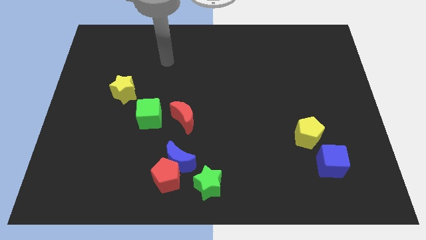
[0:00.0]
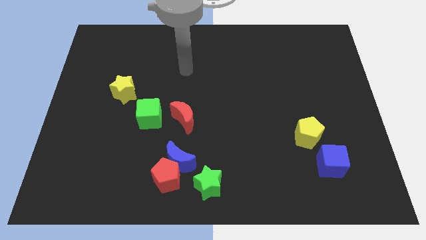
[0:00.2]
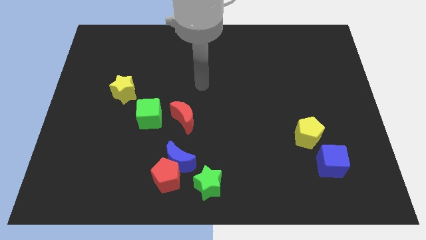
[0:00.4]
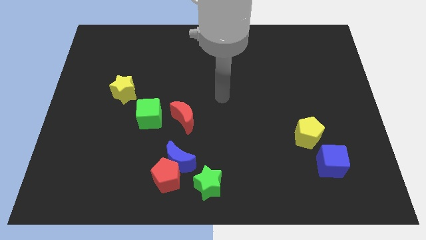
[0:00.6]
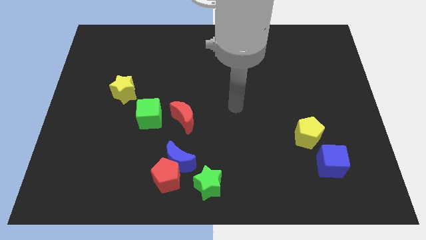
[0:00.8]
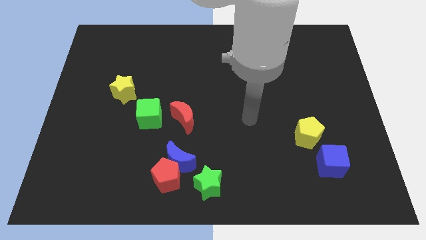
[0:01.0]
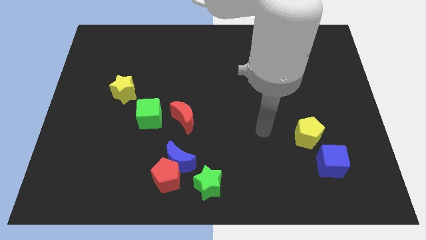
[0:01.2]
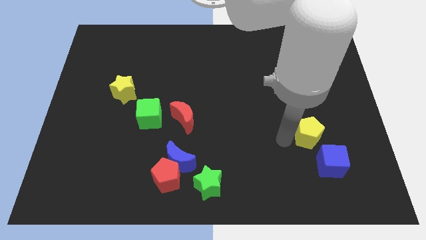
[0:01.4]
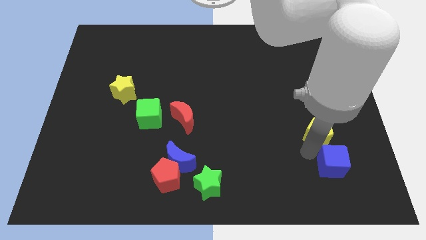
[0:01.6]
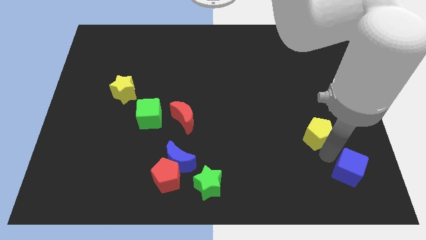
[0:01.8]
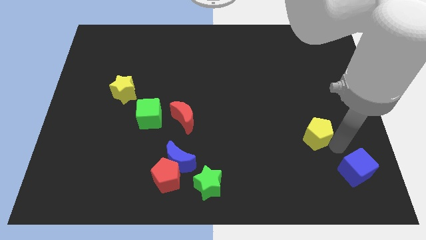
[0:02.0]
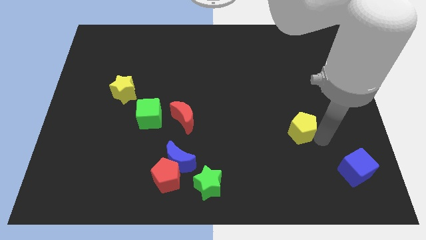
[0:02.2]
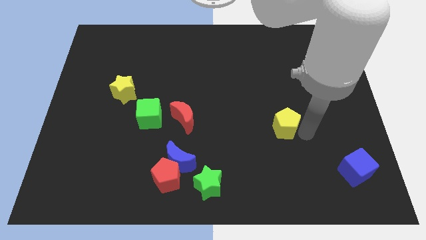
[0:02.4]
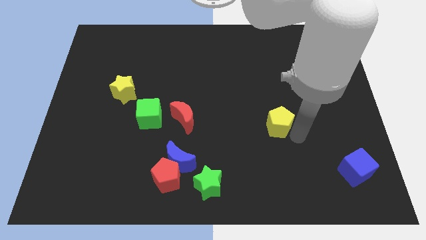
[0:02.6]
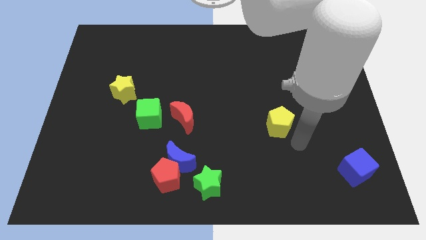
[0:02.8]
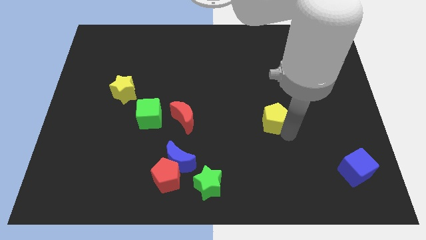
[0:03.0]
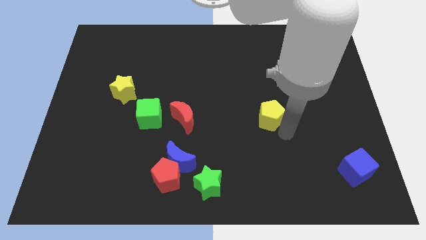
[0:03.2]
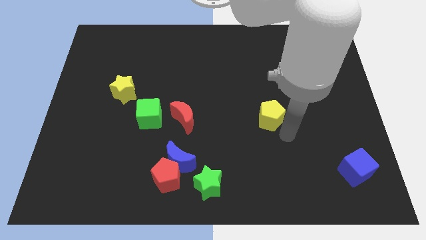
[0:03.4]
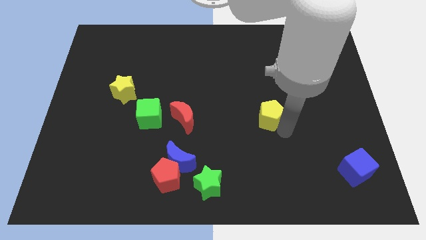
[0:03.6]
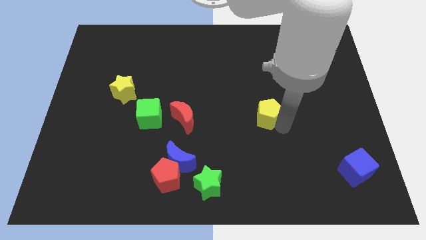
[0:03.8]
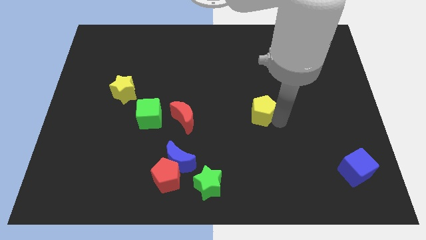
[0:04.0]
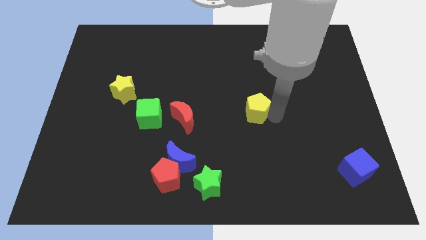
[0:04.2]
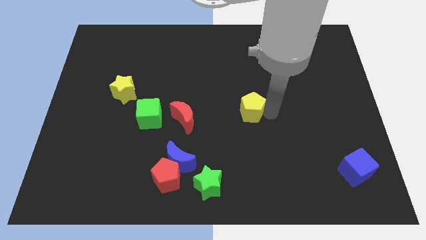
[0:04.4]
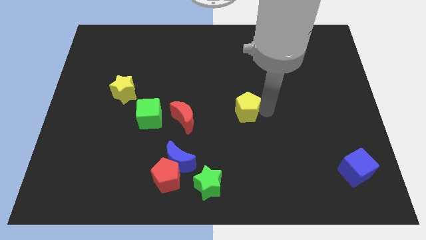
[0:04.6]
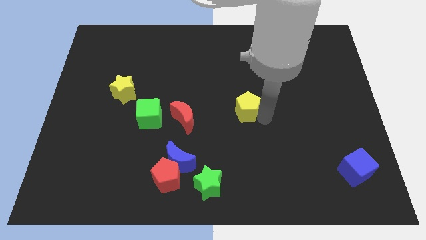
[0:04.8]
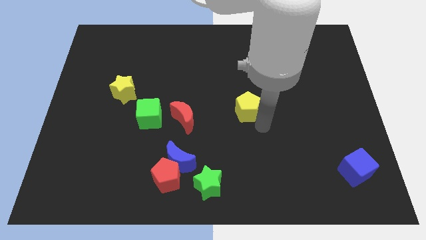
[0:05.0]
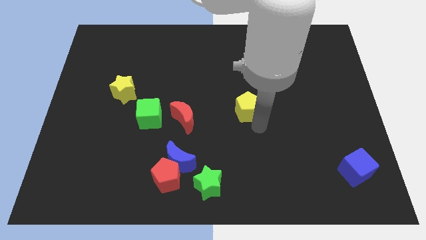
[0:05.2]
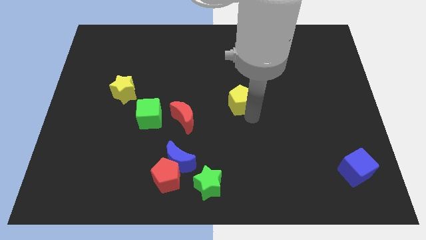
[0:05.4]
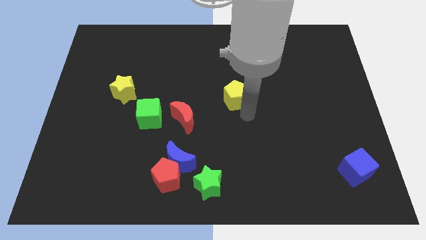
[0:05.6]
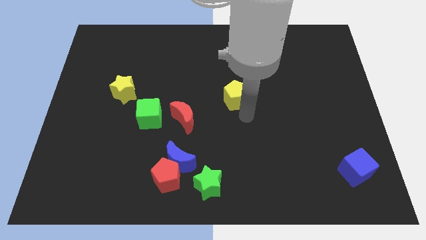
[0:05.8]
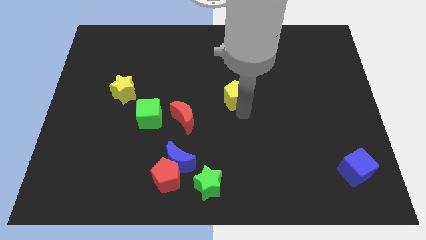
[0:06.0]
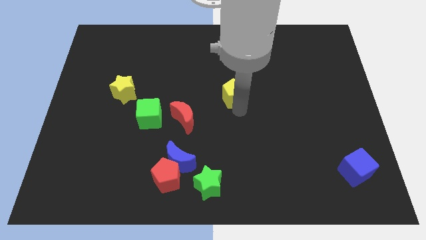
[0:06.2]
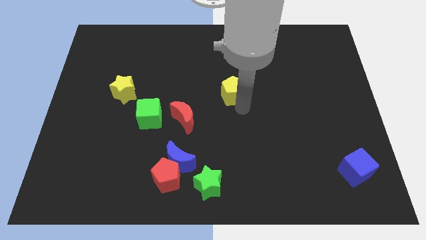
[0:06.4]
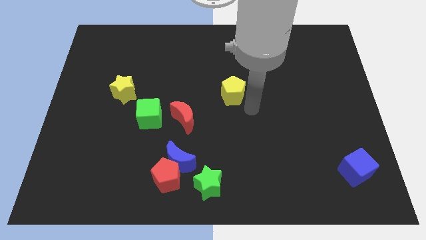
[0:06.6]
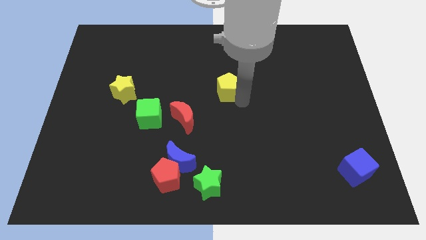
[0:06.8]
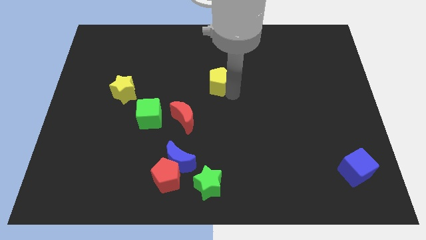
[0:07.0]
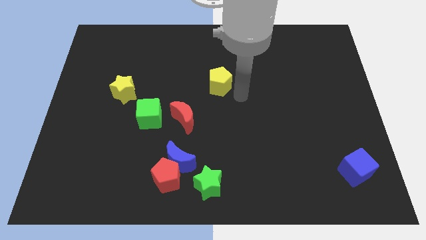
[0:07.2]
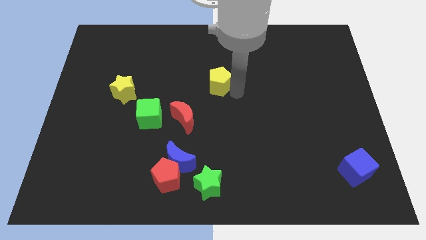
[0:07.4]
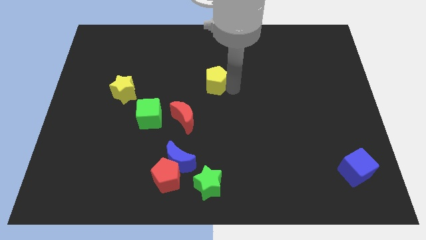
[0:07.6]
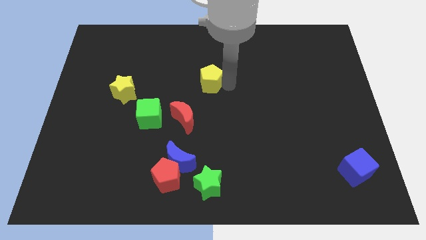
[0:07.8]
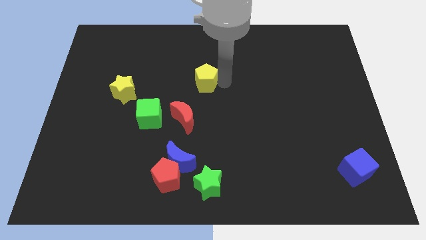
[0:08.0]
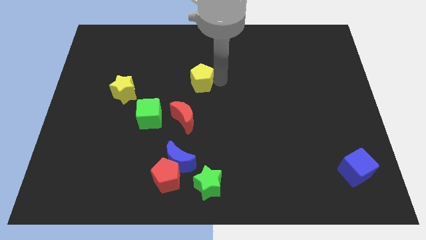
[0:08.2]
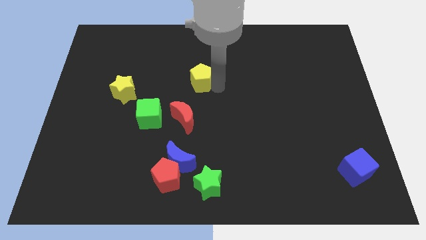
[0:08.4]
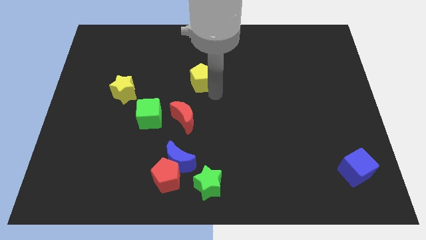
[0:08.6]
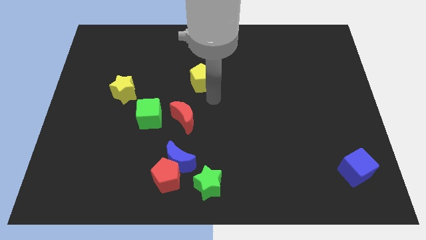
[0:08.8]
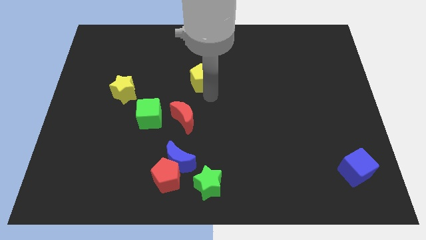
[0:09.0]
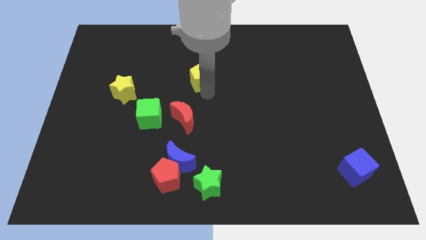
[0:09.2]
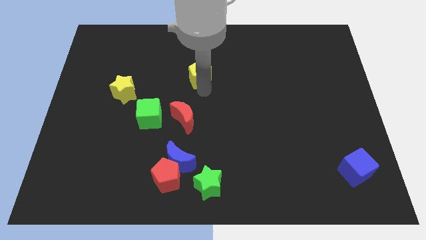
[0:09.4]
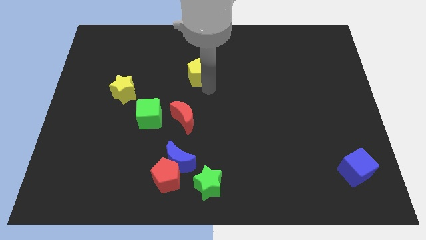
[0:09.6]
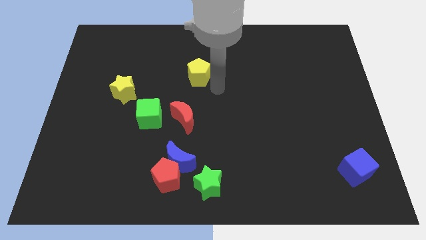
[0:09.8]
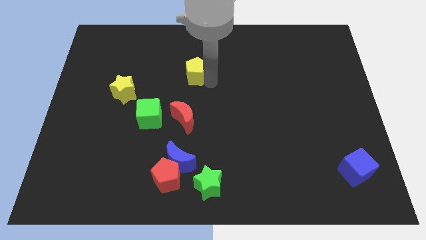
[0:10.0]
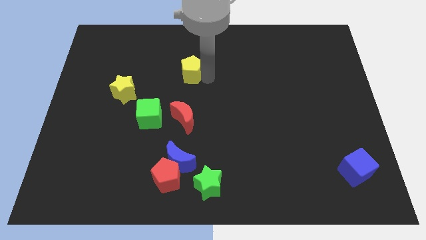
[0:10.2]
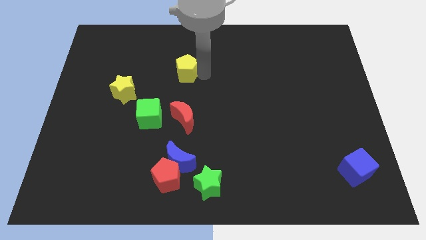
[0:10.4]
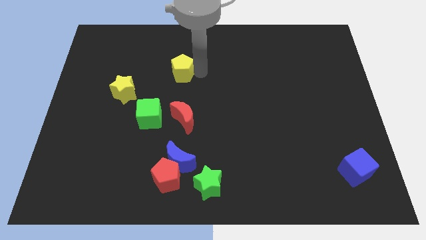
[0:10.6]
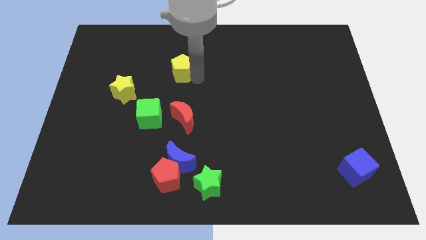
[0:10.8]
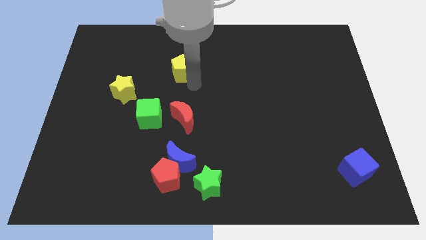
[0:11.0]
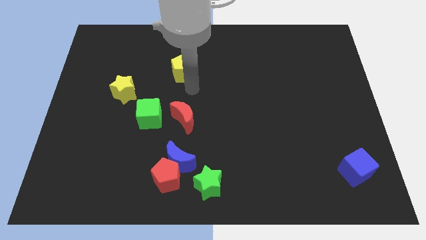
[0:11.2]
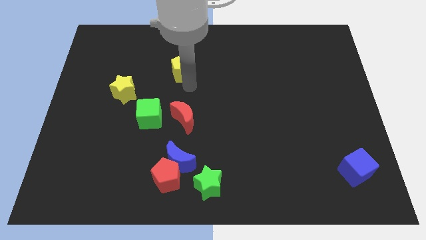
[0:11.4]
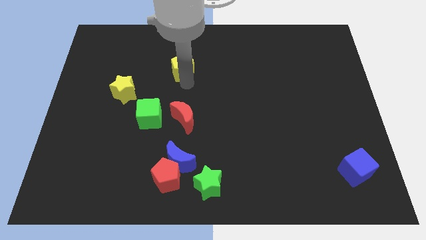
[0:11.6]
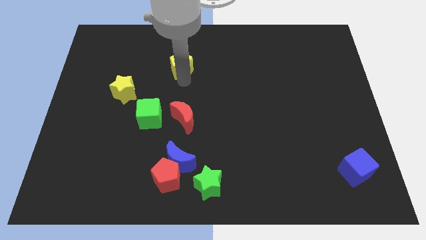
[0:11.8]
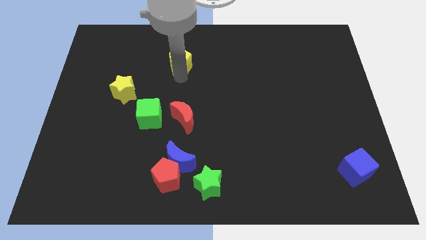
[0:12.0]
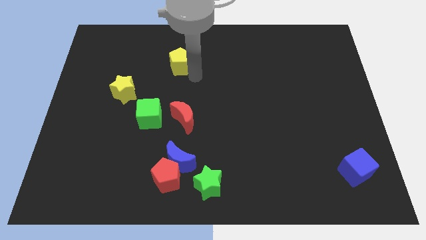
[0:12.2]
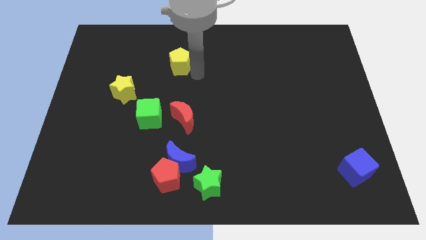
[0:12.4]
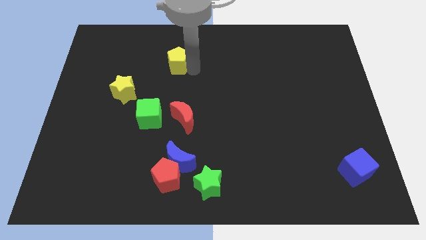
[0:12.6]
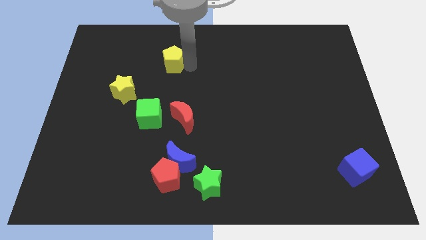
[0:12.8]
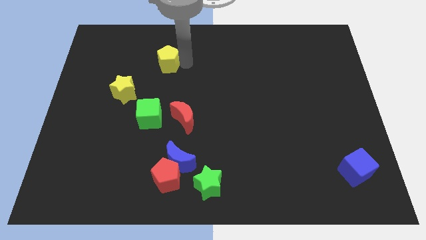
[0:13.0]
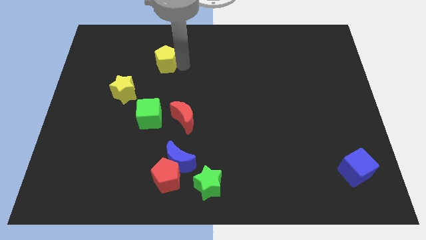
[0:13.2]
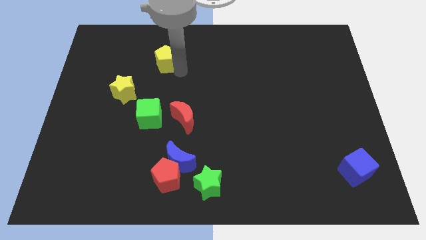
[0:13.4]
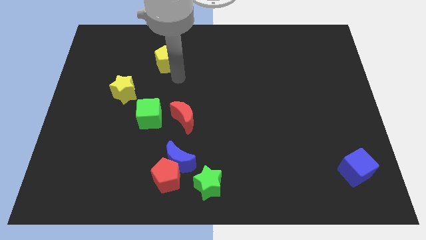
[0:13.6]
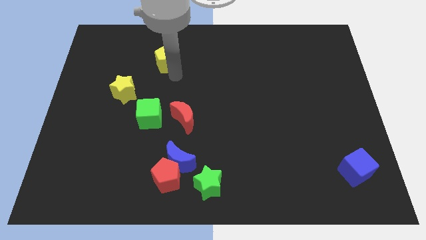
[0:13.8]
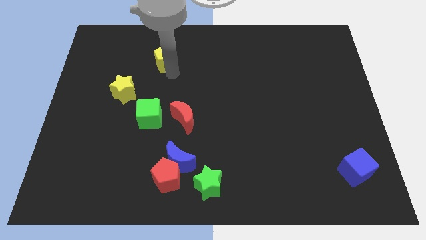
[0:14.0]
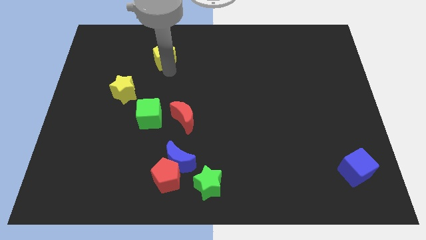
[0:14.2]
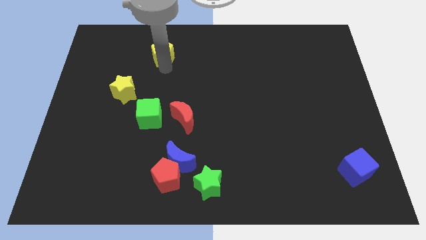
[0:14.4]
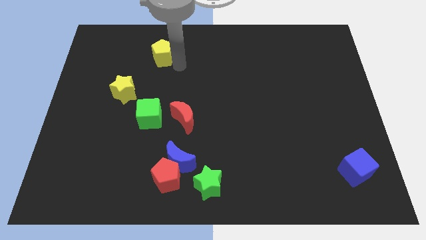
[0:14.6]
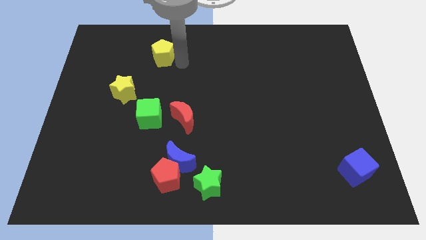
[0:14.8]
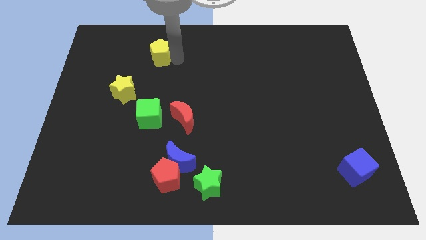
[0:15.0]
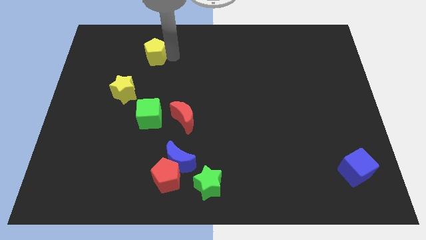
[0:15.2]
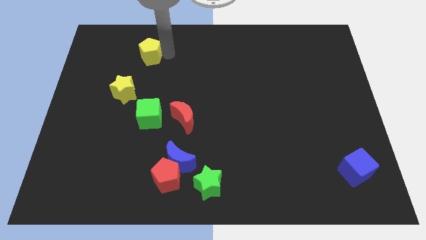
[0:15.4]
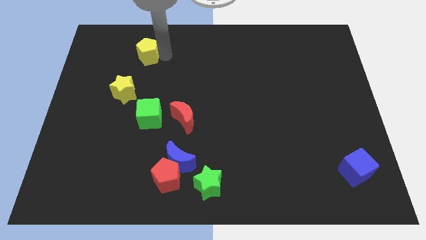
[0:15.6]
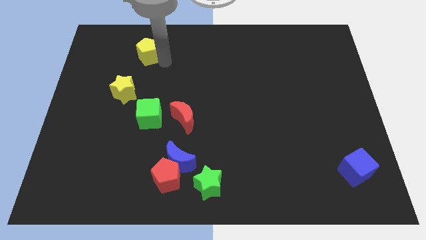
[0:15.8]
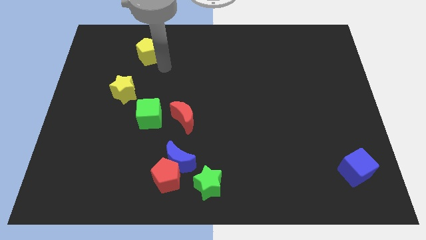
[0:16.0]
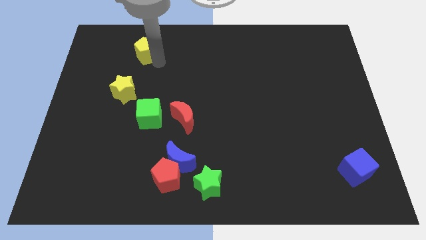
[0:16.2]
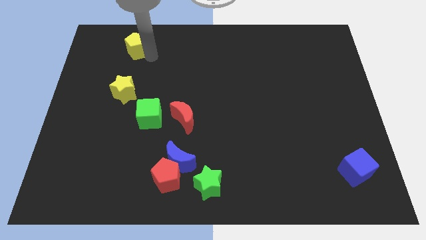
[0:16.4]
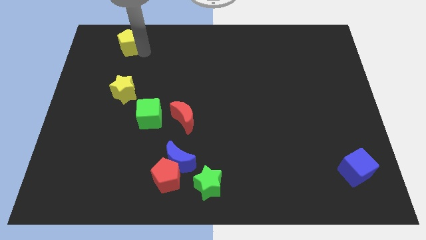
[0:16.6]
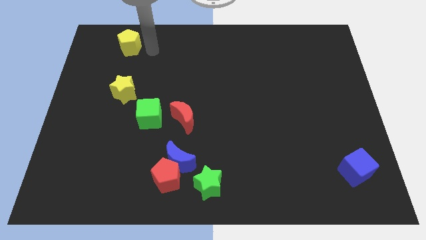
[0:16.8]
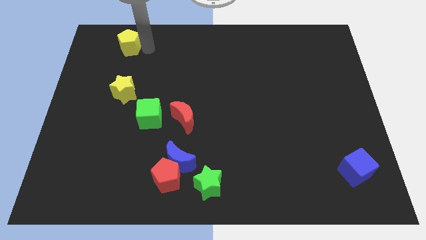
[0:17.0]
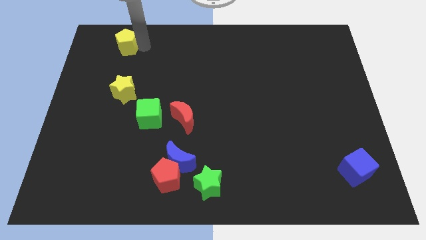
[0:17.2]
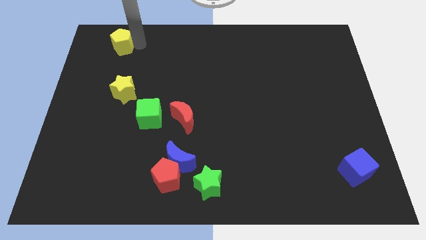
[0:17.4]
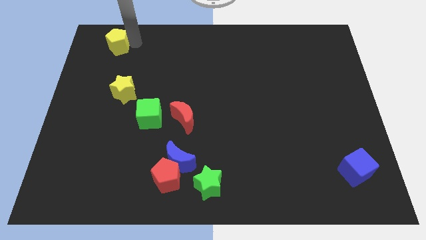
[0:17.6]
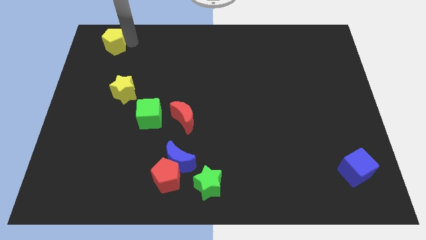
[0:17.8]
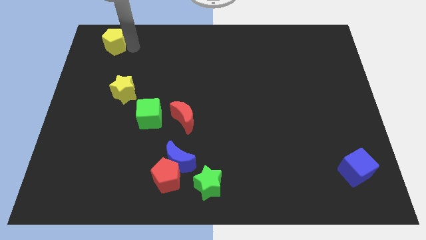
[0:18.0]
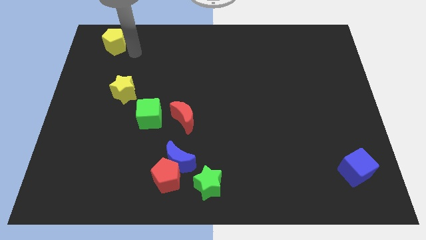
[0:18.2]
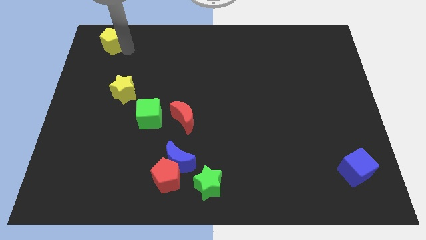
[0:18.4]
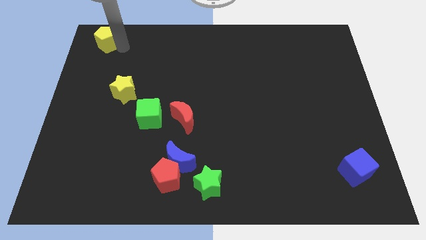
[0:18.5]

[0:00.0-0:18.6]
put the yellow pentagon to the top left
